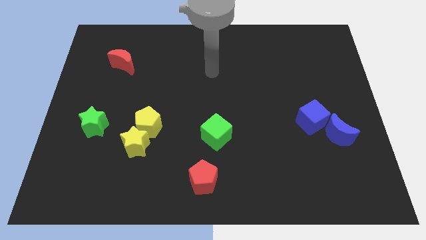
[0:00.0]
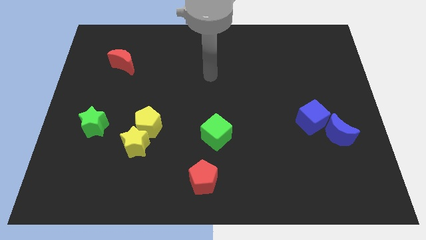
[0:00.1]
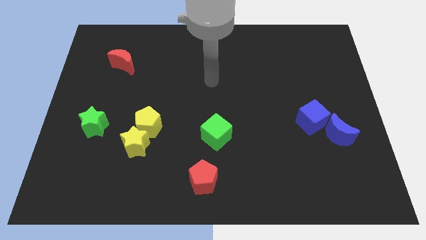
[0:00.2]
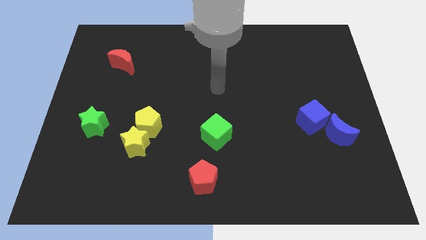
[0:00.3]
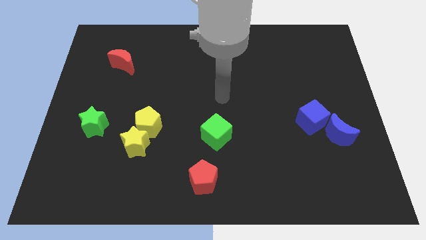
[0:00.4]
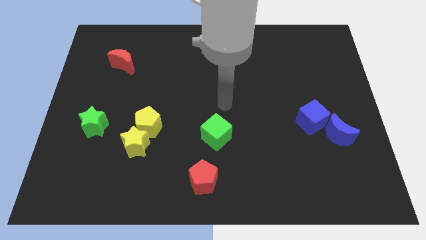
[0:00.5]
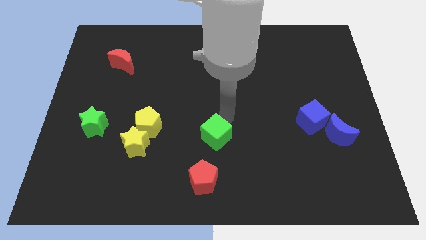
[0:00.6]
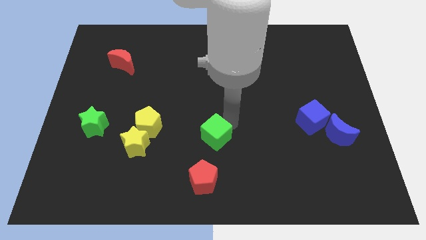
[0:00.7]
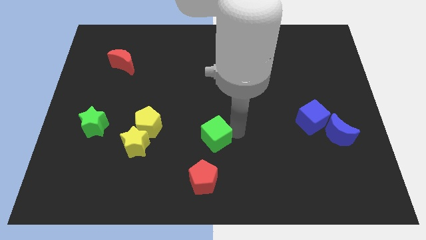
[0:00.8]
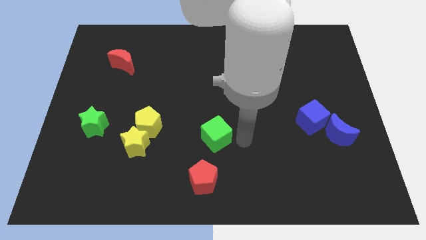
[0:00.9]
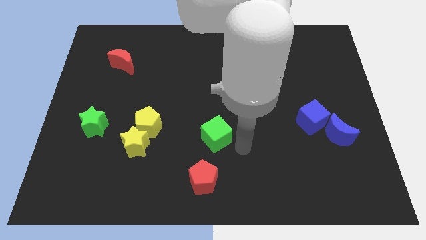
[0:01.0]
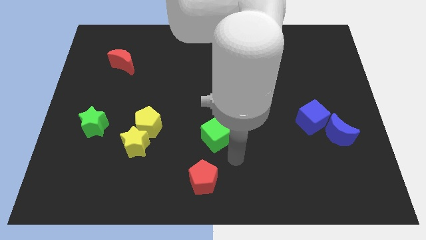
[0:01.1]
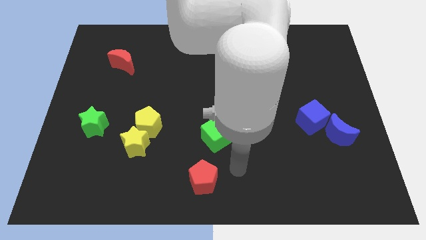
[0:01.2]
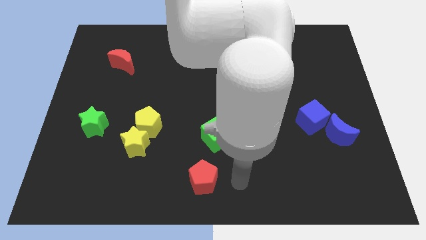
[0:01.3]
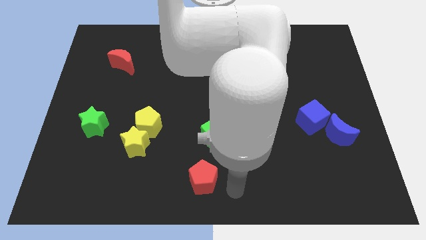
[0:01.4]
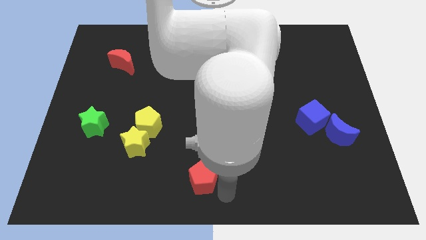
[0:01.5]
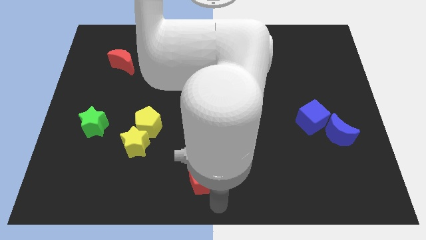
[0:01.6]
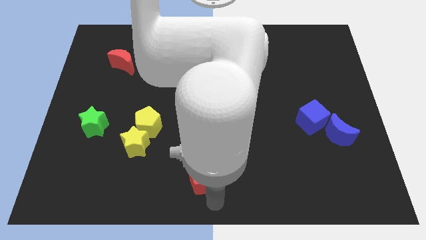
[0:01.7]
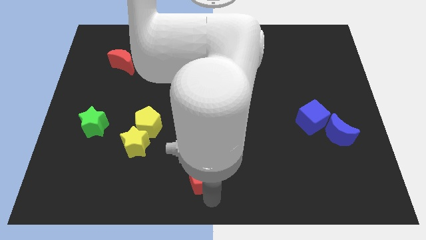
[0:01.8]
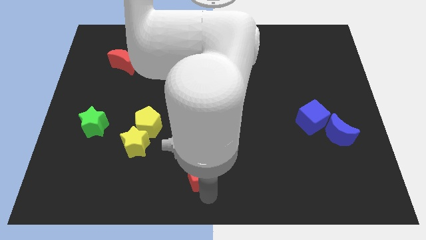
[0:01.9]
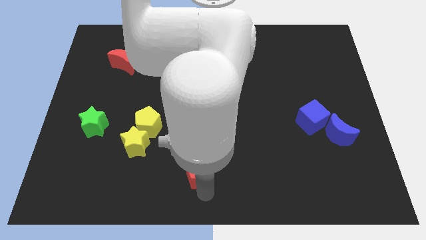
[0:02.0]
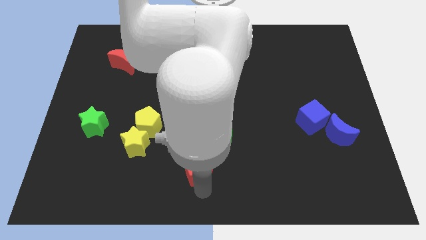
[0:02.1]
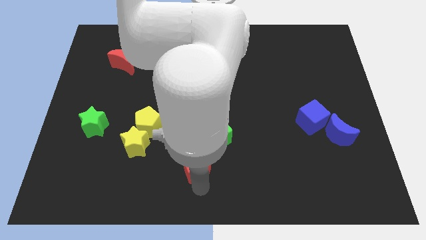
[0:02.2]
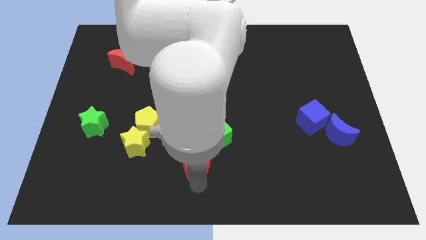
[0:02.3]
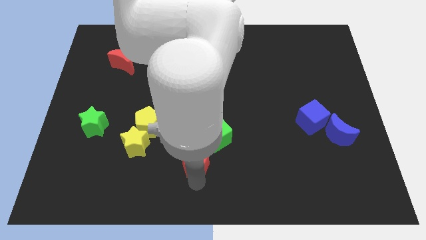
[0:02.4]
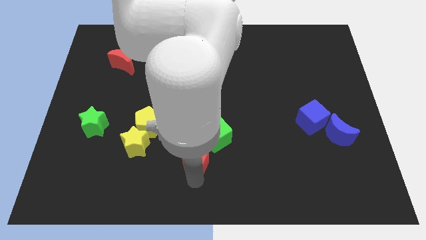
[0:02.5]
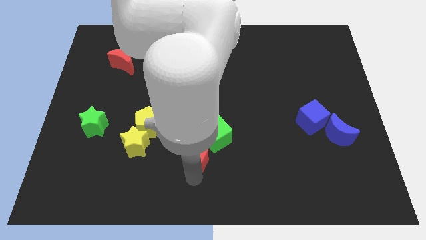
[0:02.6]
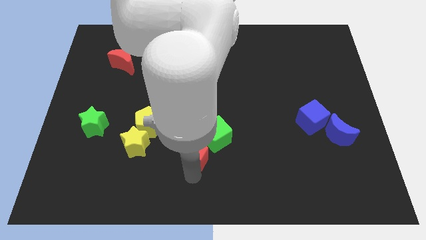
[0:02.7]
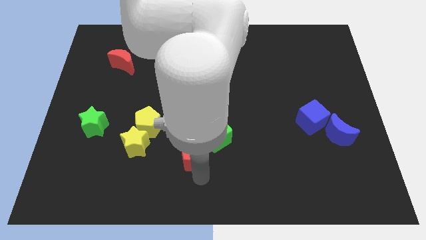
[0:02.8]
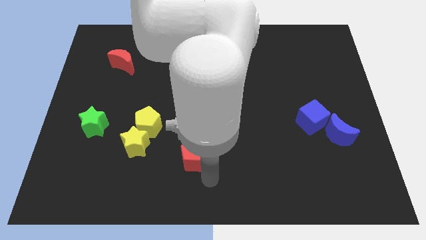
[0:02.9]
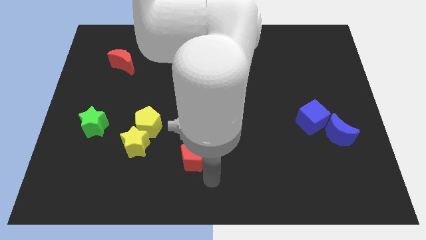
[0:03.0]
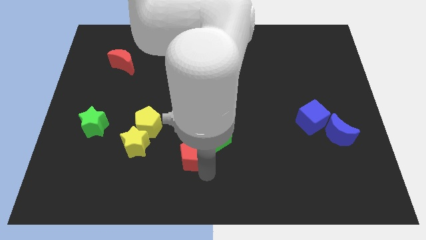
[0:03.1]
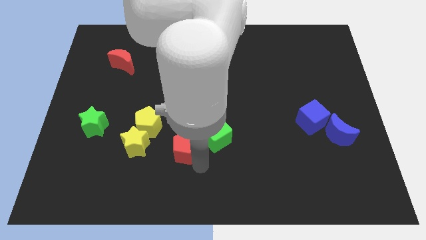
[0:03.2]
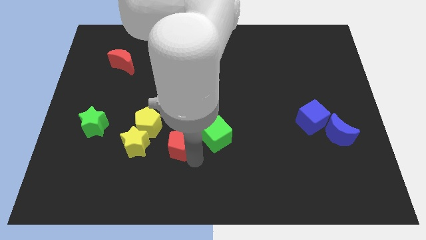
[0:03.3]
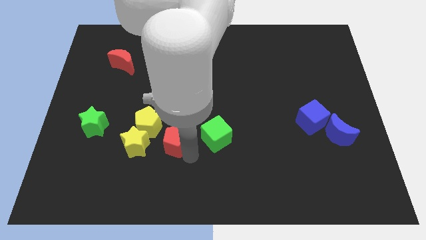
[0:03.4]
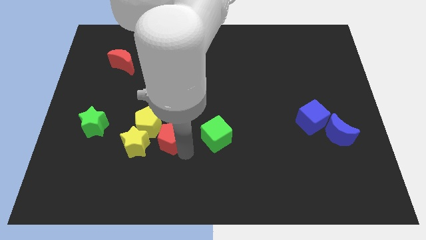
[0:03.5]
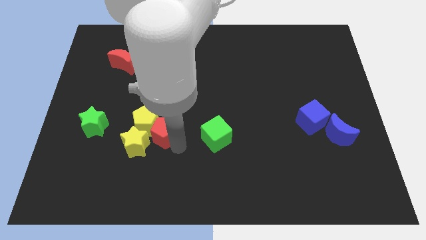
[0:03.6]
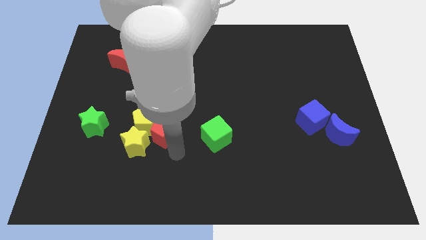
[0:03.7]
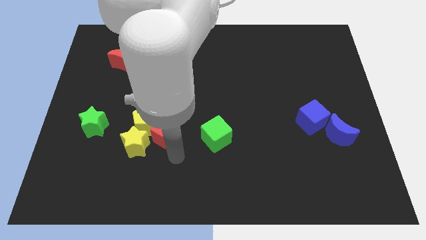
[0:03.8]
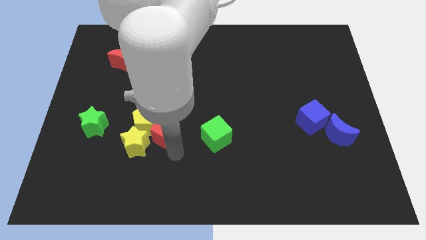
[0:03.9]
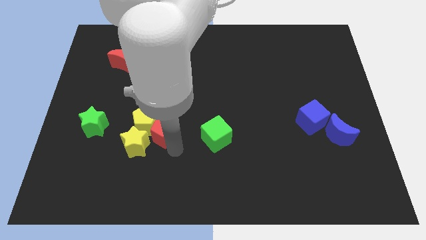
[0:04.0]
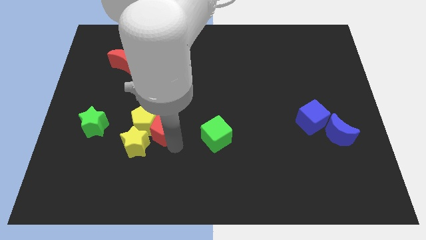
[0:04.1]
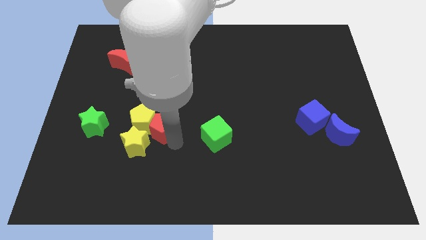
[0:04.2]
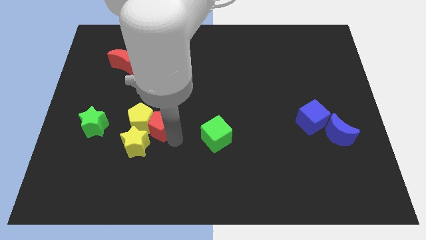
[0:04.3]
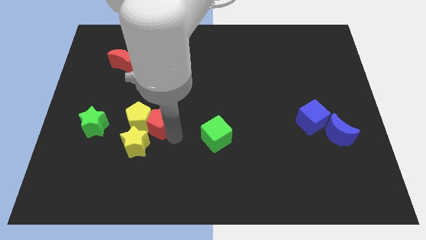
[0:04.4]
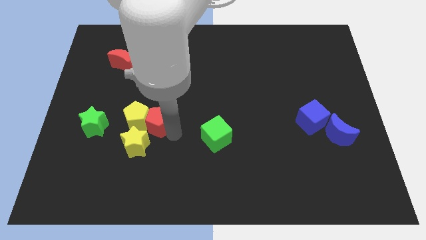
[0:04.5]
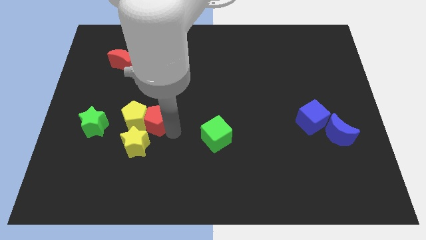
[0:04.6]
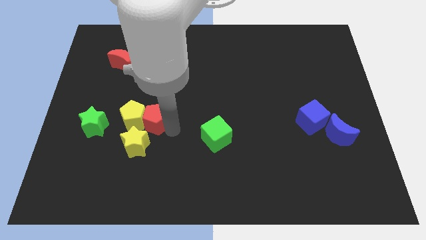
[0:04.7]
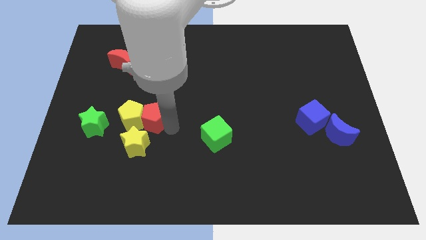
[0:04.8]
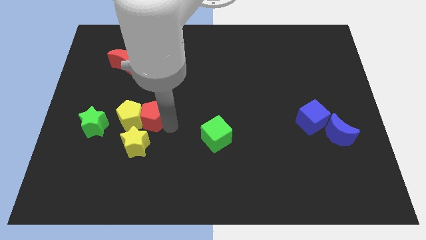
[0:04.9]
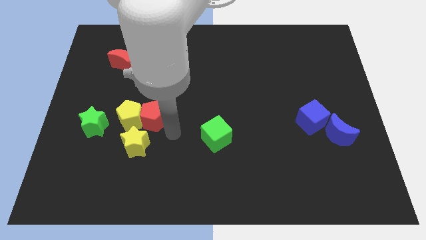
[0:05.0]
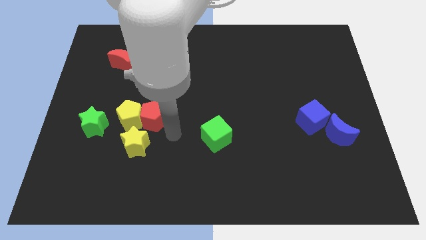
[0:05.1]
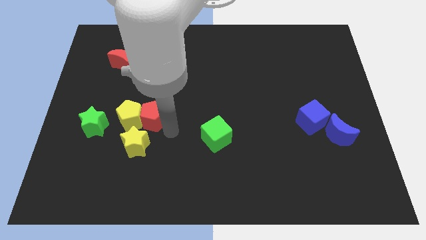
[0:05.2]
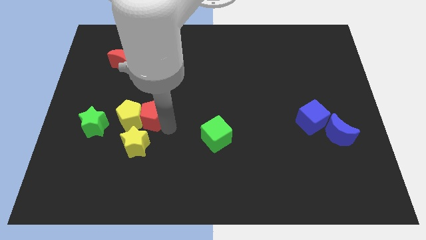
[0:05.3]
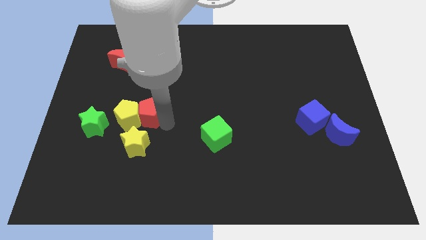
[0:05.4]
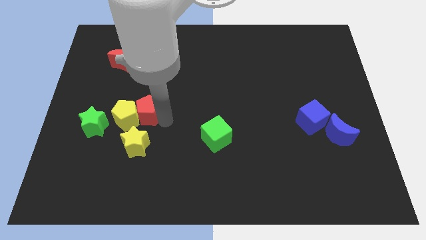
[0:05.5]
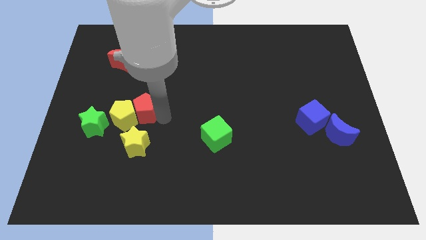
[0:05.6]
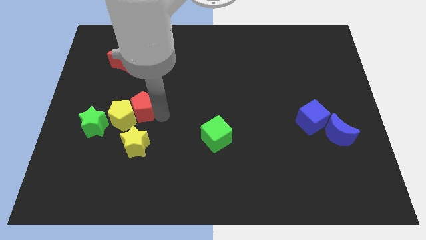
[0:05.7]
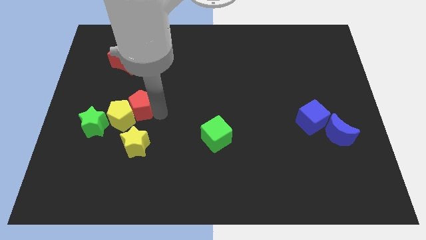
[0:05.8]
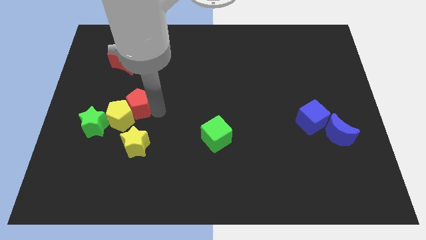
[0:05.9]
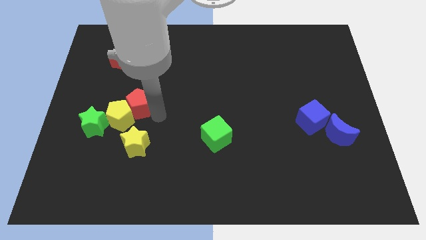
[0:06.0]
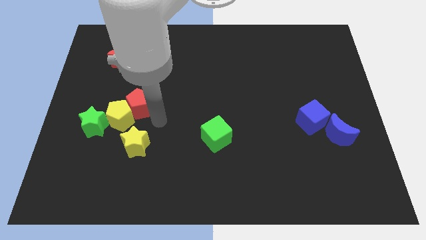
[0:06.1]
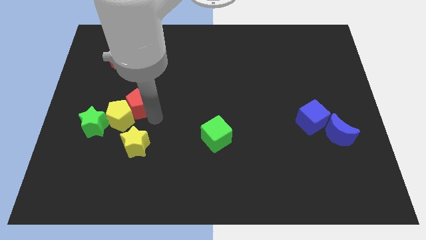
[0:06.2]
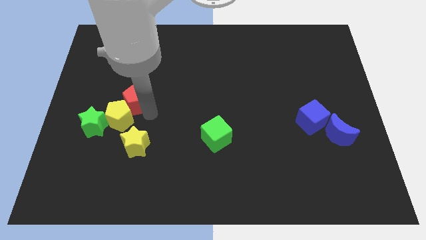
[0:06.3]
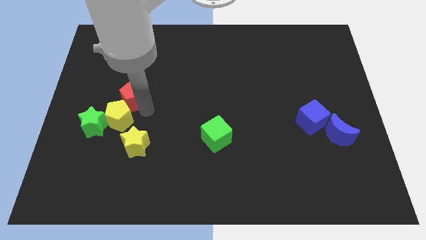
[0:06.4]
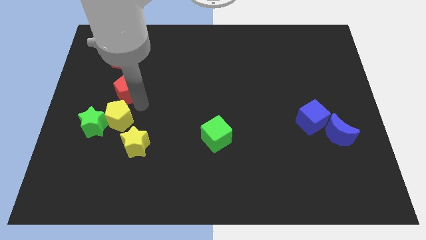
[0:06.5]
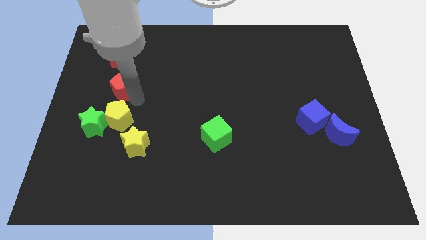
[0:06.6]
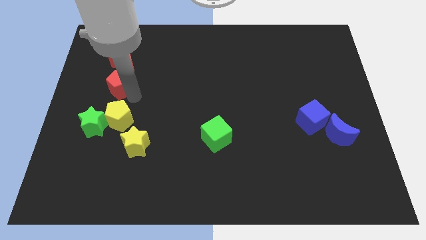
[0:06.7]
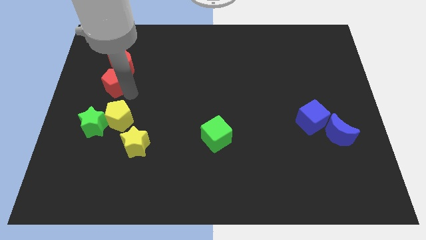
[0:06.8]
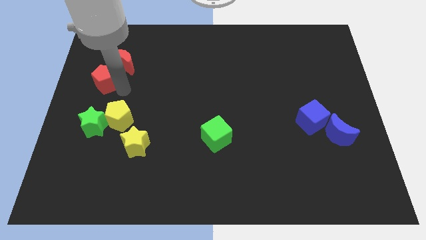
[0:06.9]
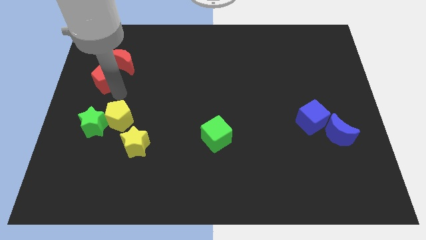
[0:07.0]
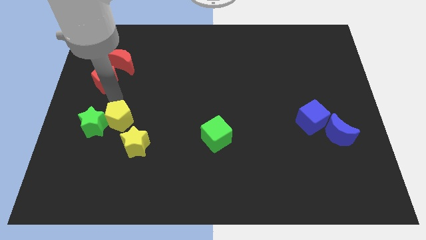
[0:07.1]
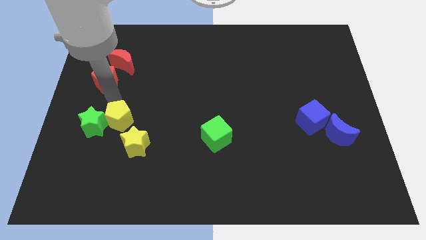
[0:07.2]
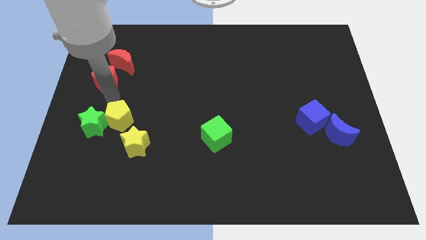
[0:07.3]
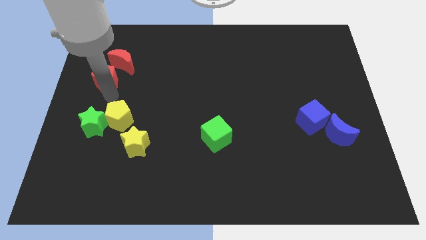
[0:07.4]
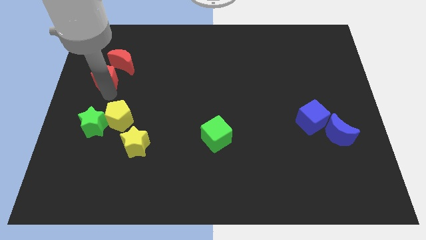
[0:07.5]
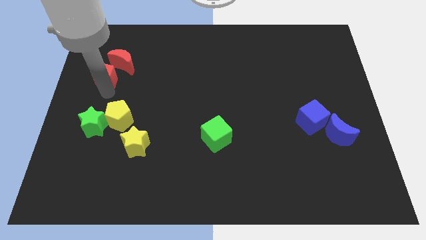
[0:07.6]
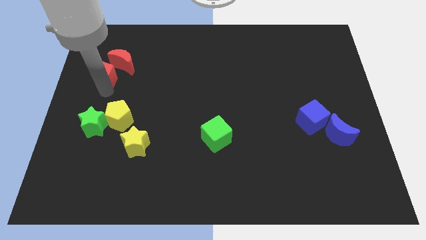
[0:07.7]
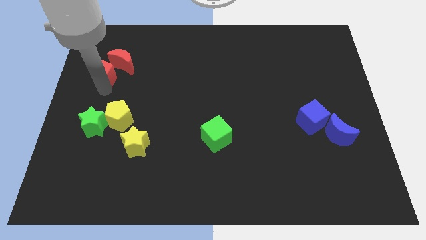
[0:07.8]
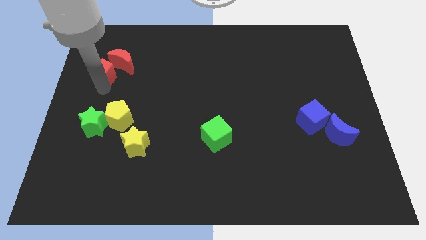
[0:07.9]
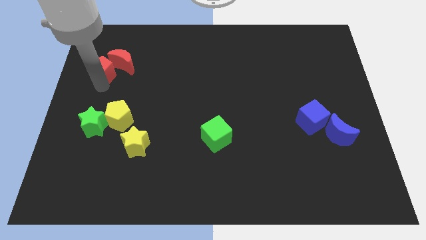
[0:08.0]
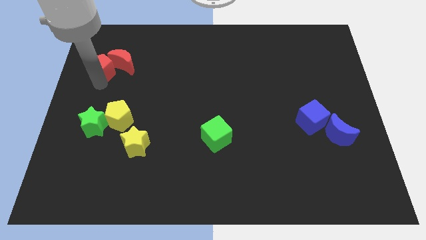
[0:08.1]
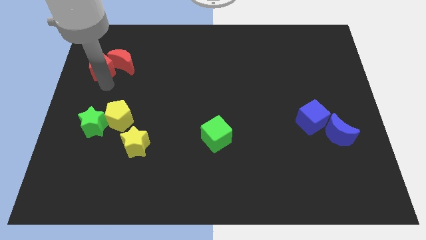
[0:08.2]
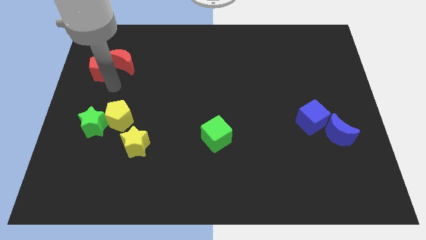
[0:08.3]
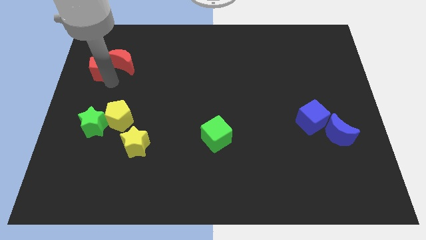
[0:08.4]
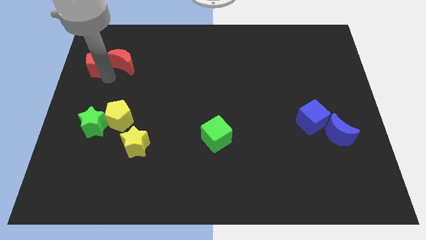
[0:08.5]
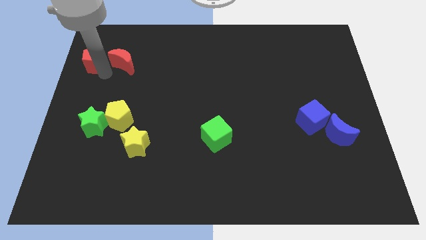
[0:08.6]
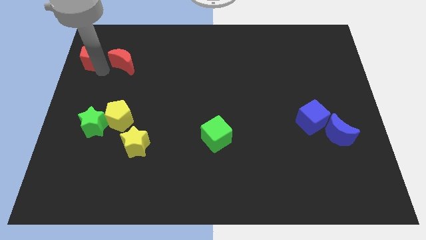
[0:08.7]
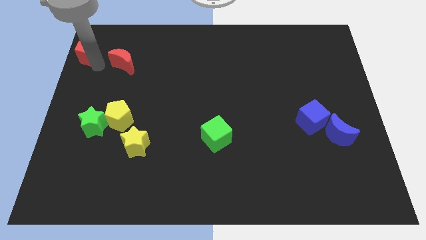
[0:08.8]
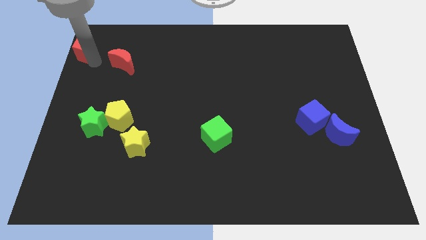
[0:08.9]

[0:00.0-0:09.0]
push the red pentagon to the upper left corner
